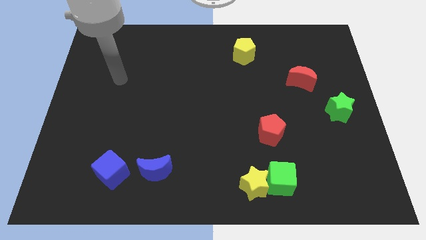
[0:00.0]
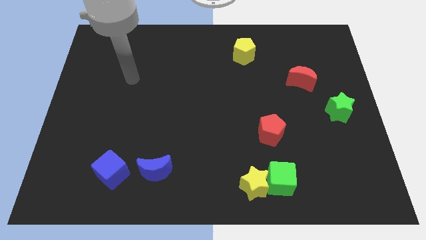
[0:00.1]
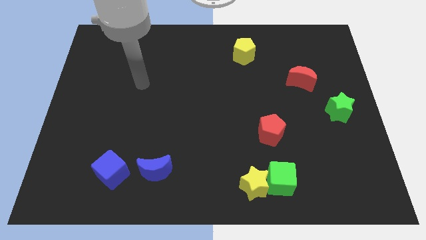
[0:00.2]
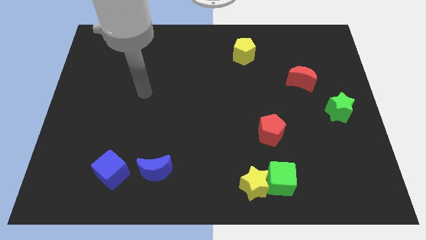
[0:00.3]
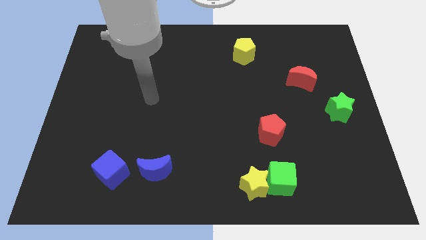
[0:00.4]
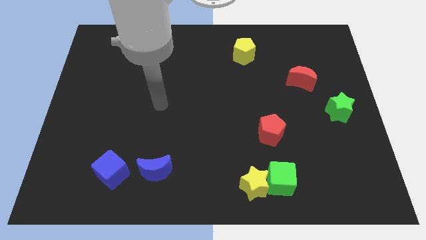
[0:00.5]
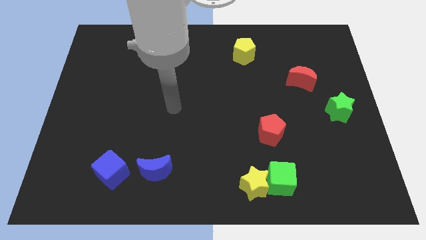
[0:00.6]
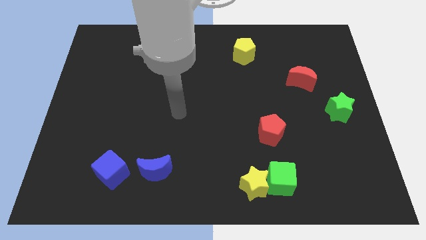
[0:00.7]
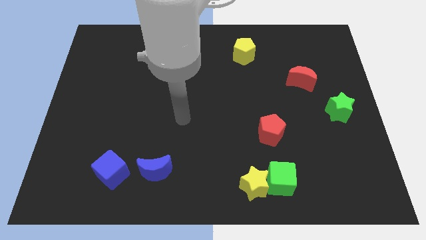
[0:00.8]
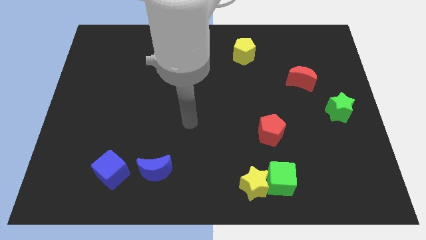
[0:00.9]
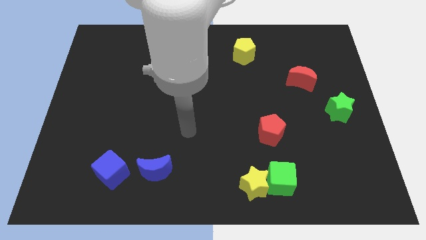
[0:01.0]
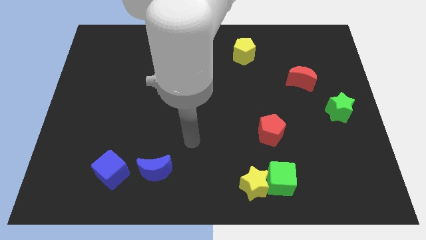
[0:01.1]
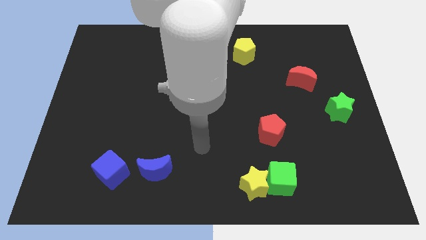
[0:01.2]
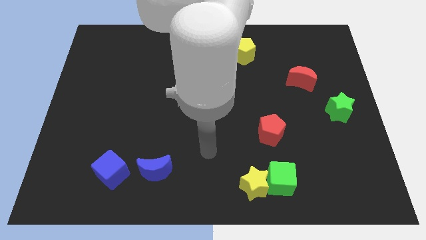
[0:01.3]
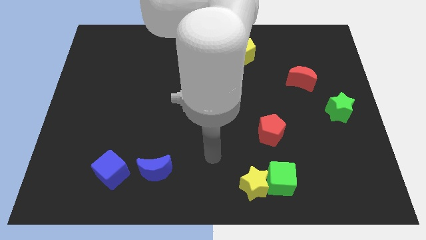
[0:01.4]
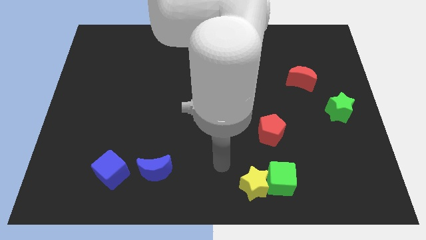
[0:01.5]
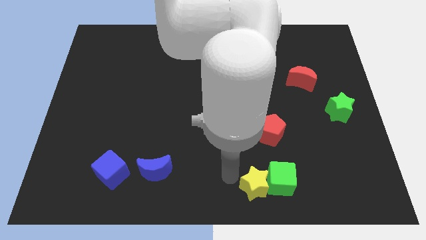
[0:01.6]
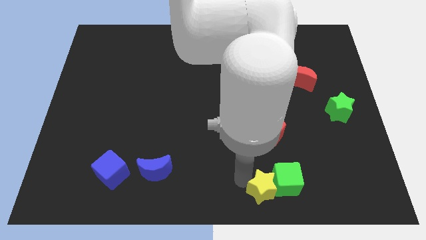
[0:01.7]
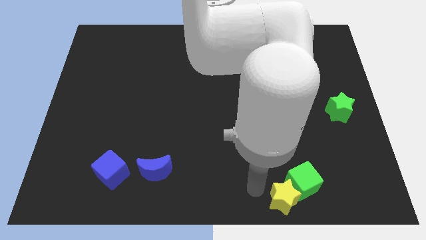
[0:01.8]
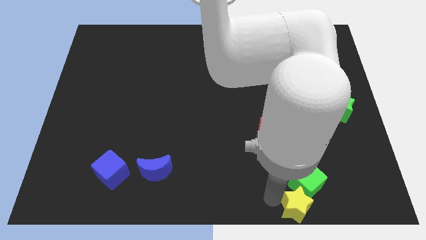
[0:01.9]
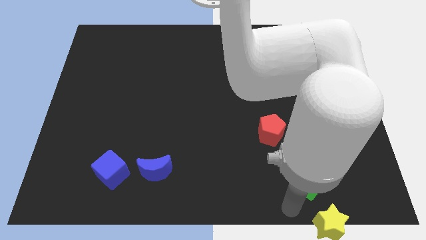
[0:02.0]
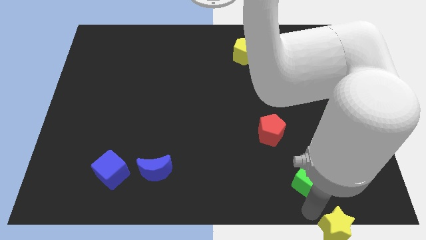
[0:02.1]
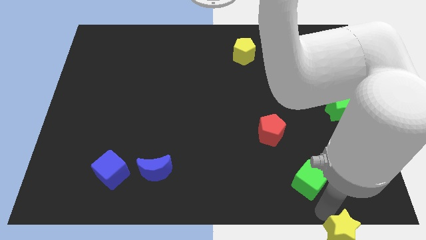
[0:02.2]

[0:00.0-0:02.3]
separate the green cube from the yellow star

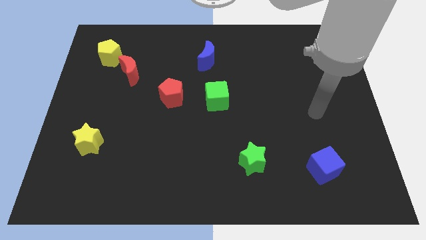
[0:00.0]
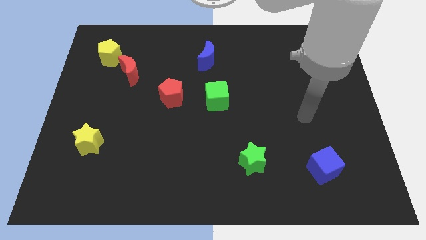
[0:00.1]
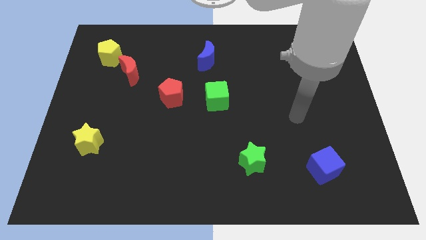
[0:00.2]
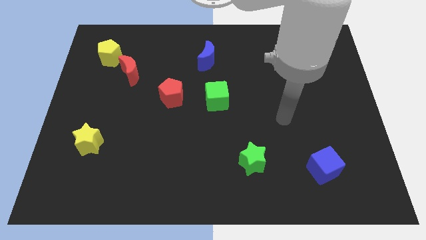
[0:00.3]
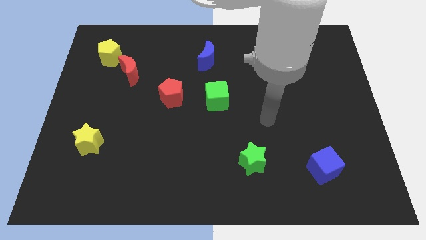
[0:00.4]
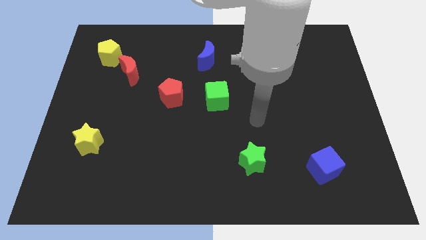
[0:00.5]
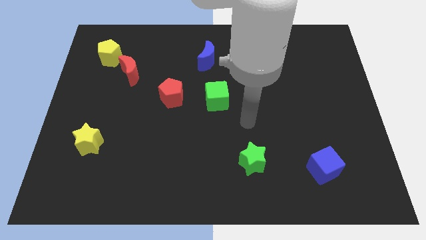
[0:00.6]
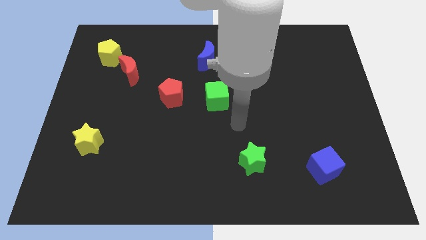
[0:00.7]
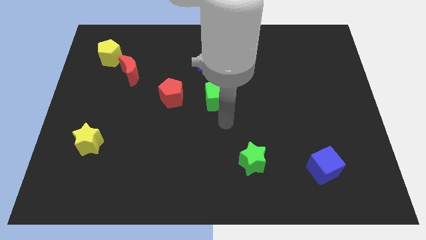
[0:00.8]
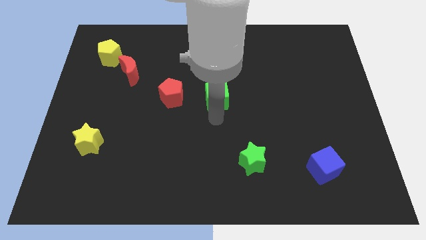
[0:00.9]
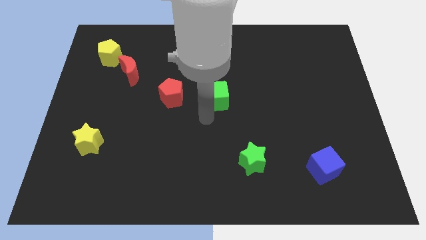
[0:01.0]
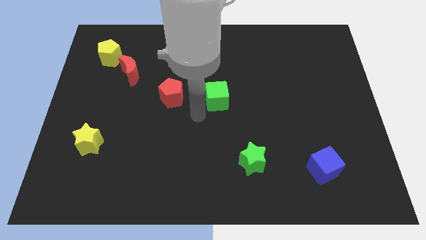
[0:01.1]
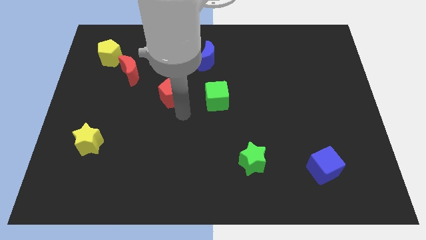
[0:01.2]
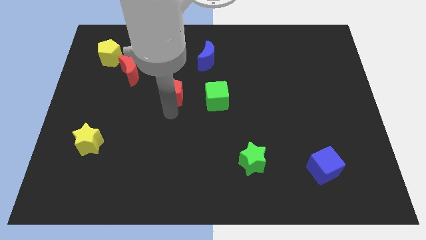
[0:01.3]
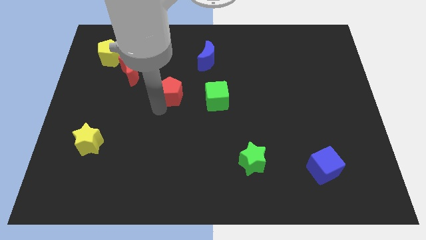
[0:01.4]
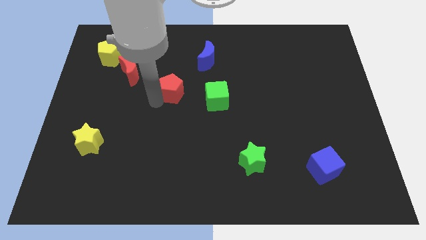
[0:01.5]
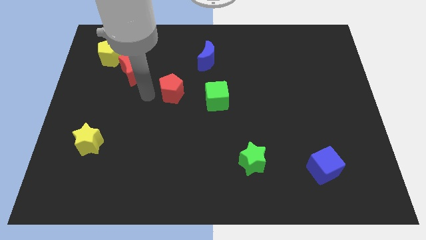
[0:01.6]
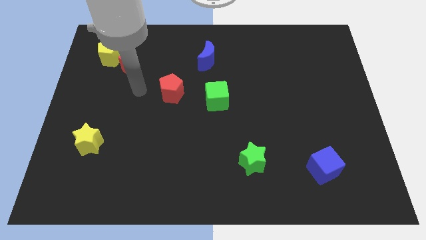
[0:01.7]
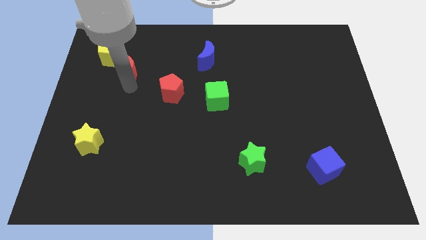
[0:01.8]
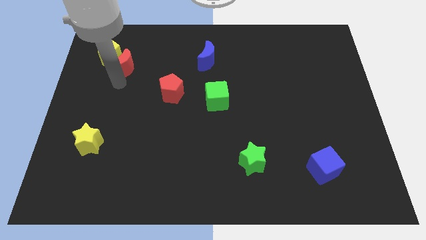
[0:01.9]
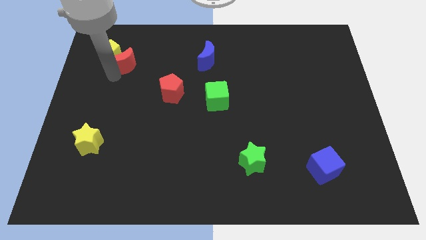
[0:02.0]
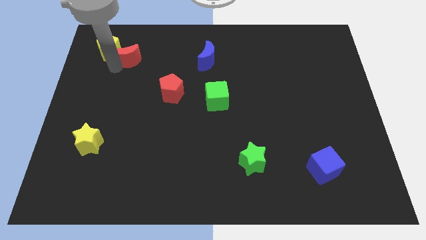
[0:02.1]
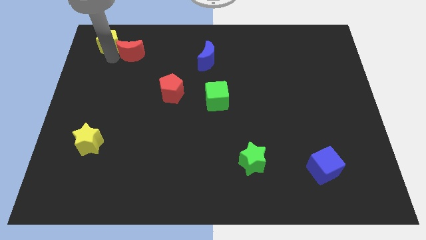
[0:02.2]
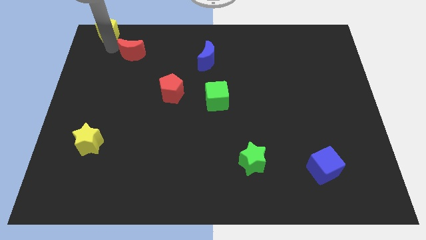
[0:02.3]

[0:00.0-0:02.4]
pull the red moon apart from the yellow pentagon

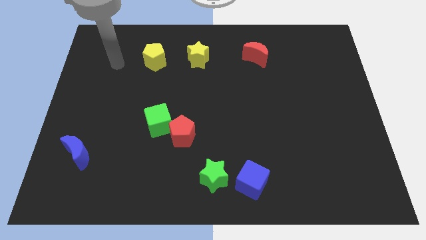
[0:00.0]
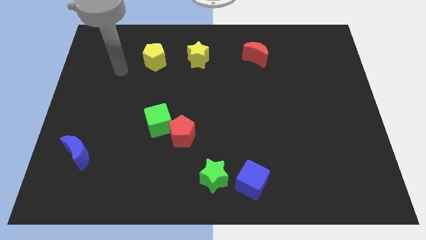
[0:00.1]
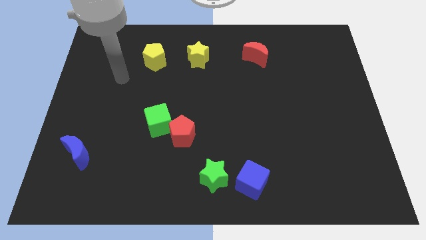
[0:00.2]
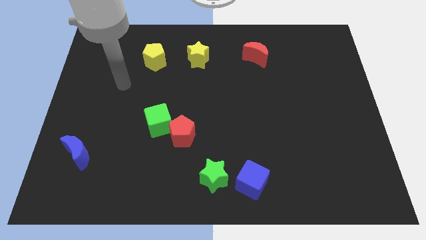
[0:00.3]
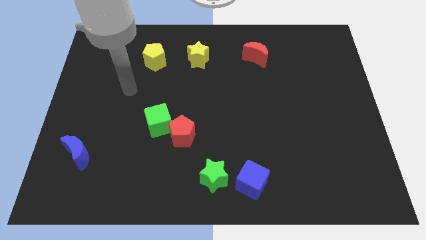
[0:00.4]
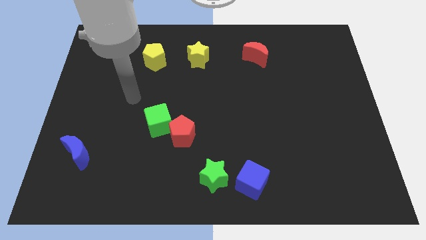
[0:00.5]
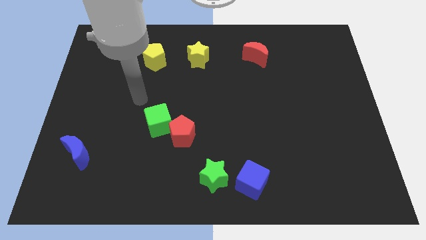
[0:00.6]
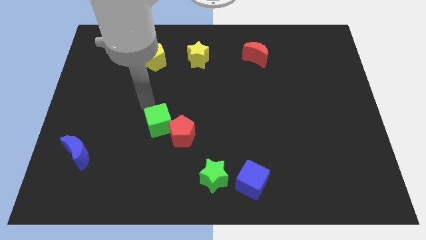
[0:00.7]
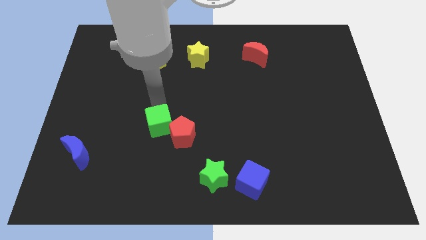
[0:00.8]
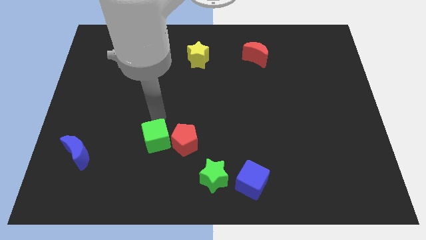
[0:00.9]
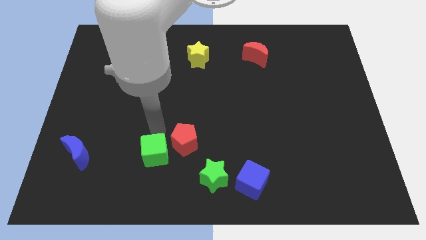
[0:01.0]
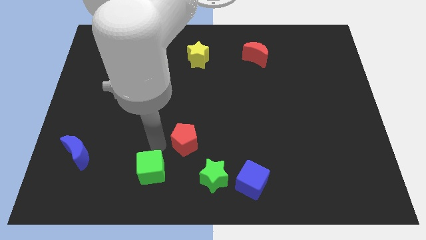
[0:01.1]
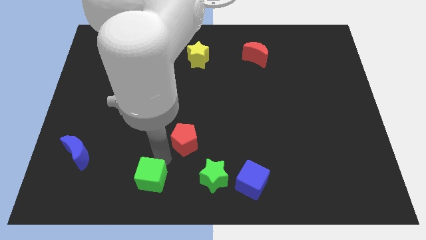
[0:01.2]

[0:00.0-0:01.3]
pull the red pentagon apart from the green cube

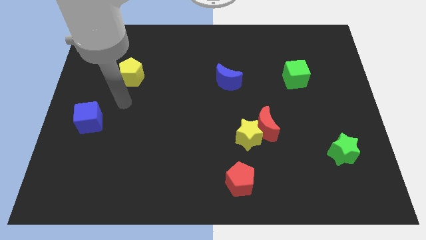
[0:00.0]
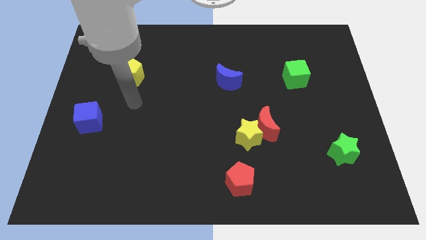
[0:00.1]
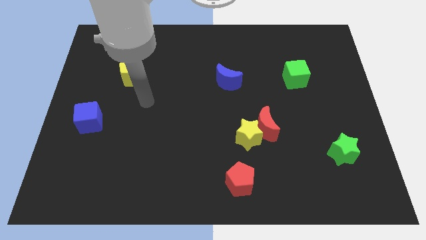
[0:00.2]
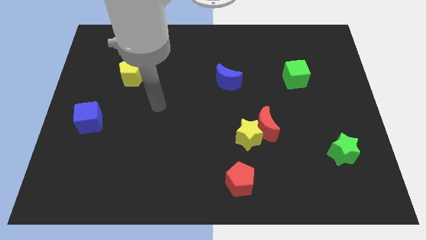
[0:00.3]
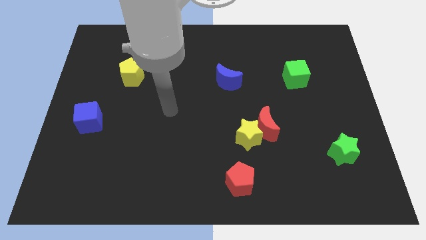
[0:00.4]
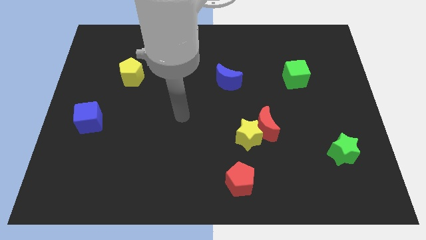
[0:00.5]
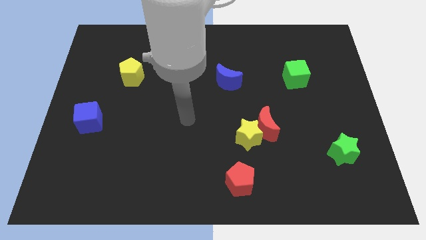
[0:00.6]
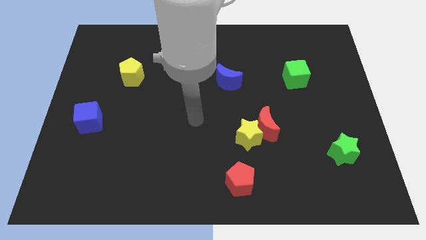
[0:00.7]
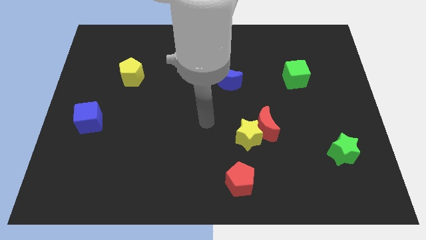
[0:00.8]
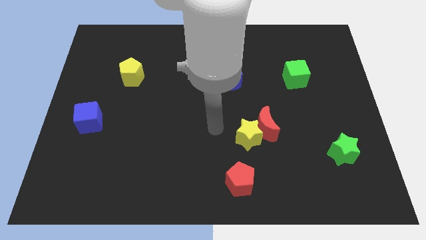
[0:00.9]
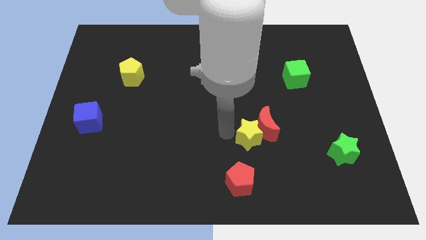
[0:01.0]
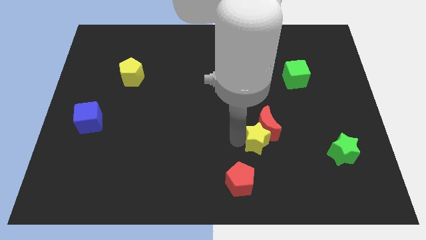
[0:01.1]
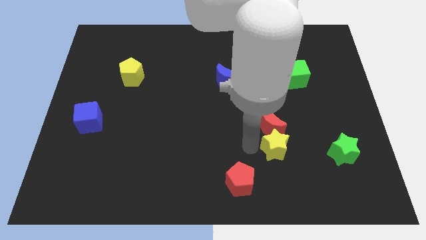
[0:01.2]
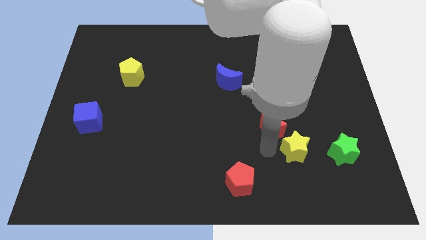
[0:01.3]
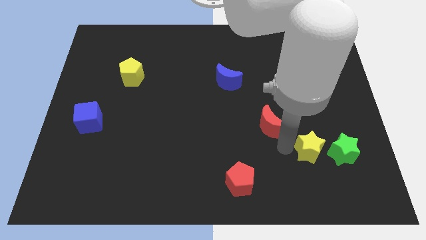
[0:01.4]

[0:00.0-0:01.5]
separate the red moon from the yellow star

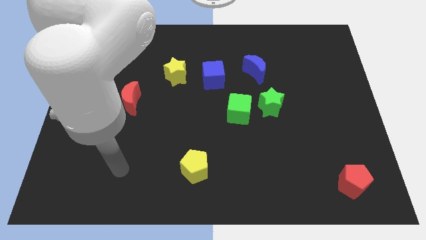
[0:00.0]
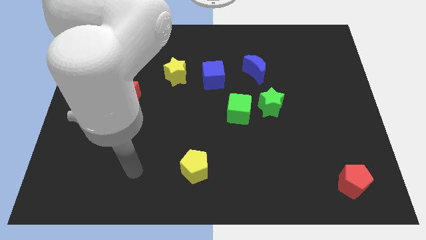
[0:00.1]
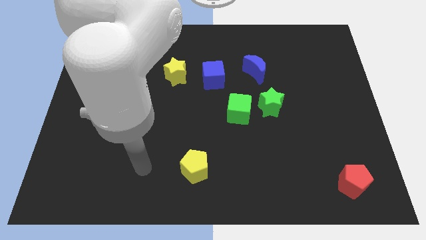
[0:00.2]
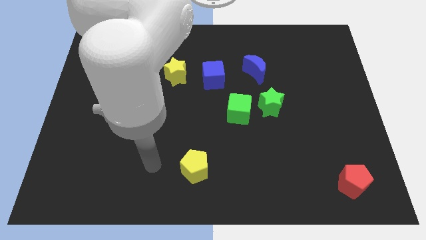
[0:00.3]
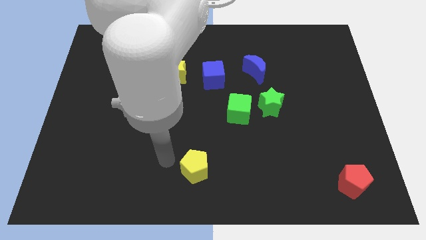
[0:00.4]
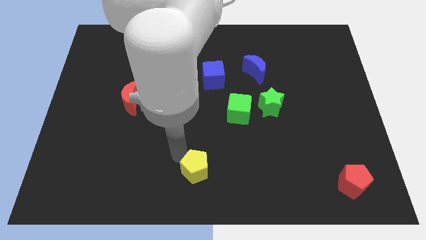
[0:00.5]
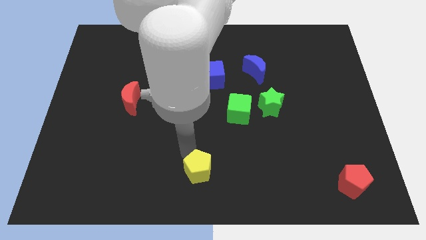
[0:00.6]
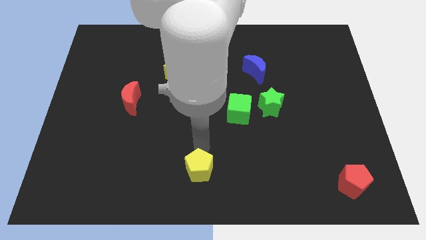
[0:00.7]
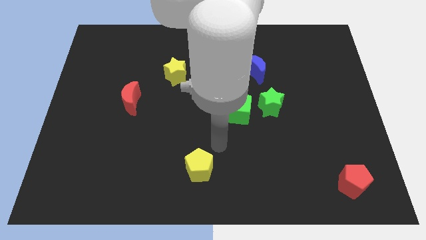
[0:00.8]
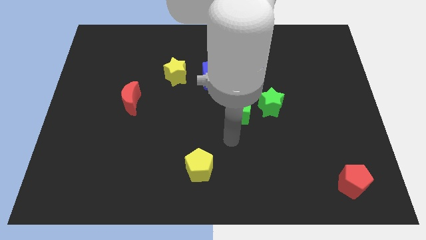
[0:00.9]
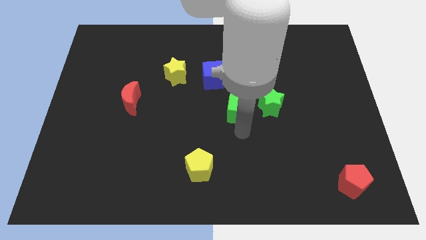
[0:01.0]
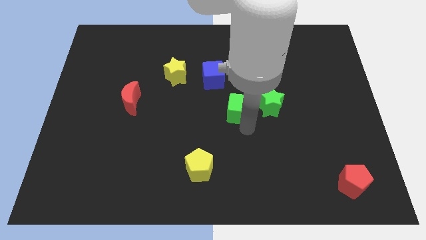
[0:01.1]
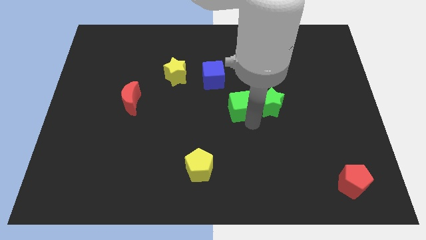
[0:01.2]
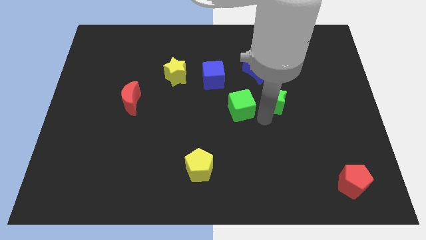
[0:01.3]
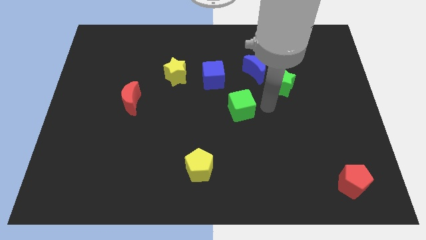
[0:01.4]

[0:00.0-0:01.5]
move the green cube away from the green star

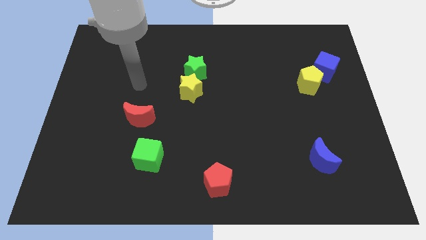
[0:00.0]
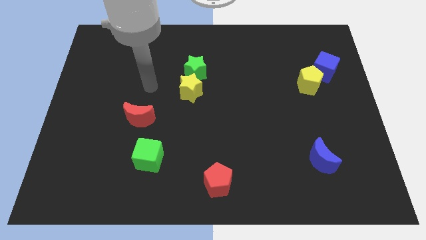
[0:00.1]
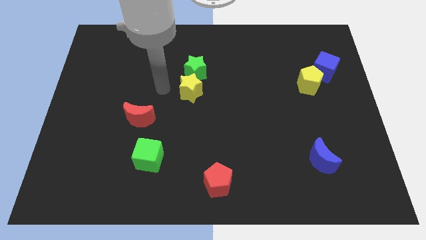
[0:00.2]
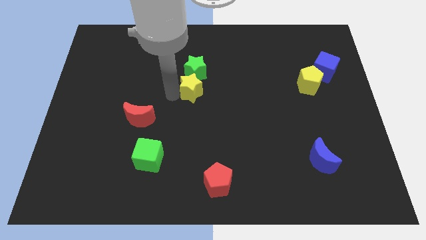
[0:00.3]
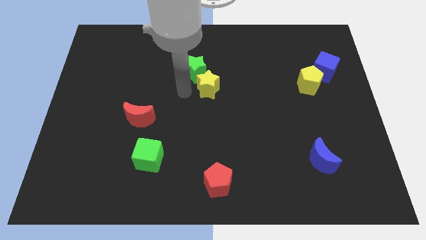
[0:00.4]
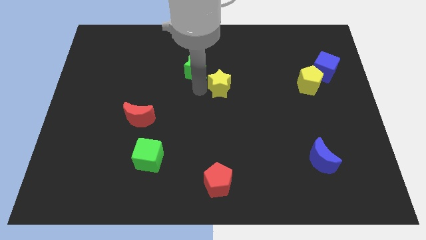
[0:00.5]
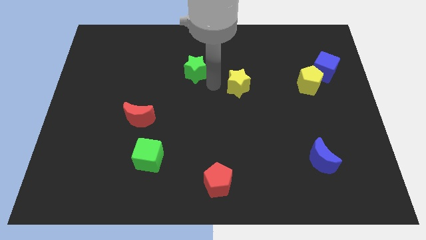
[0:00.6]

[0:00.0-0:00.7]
pull the green star apart from the yellow star
